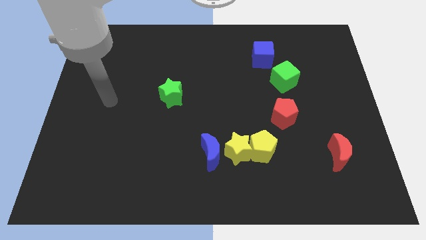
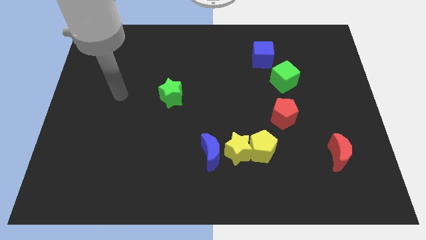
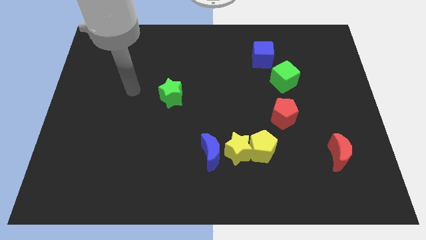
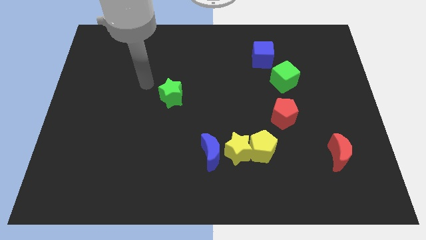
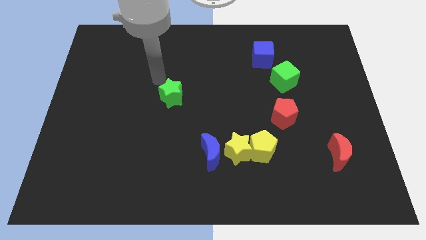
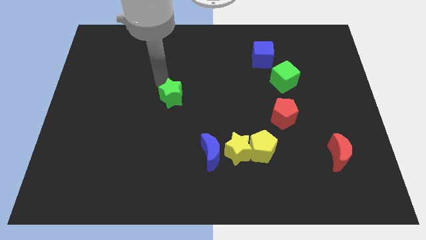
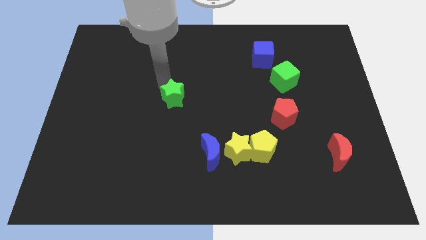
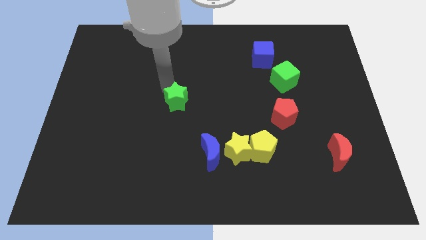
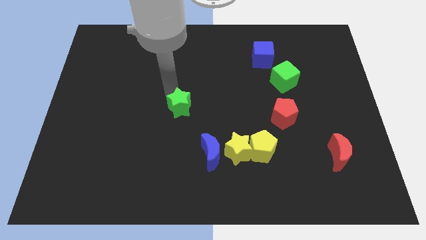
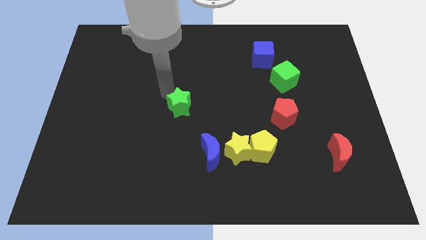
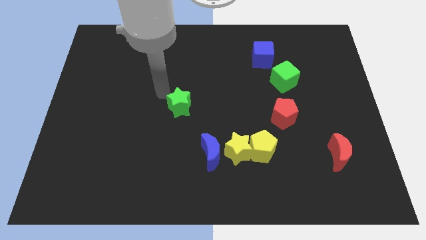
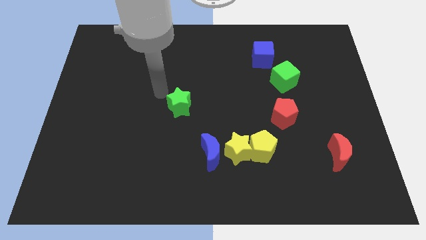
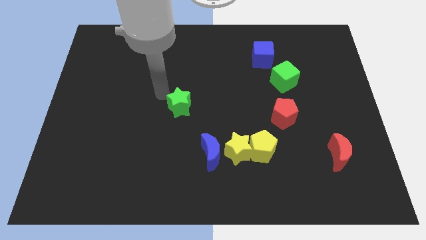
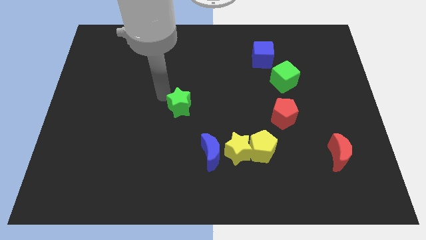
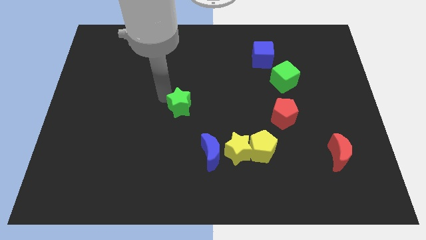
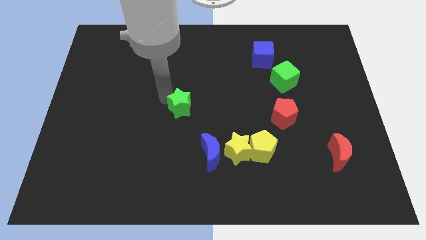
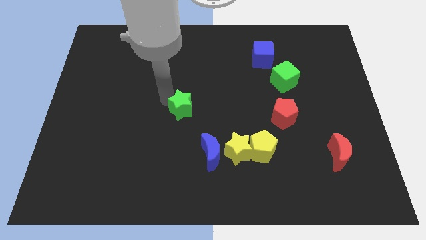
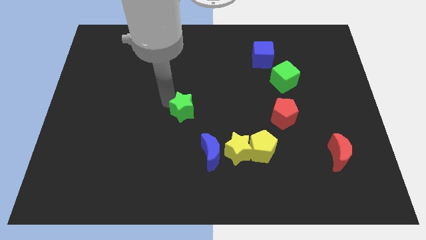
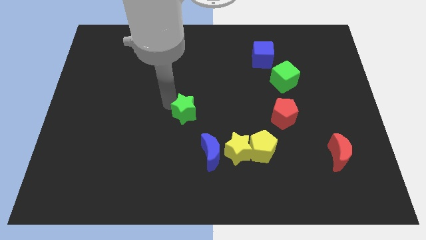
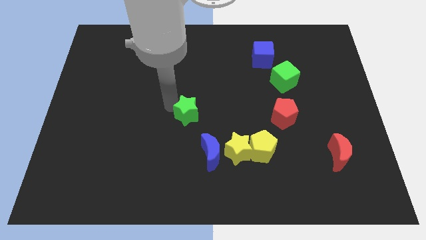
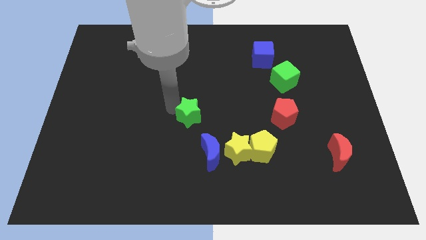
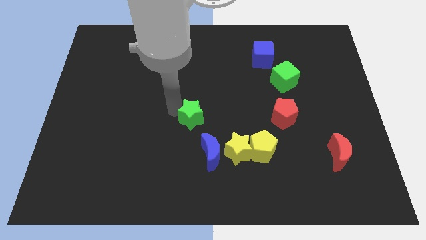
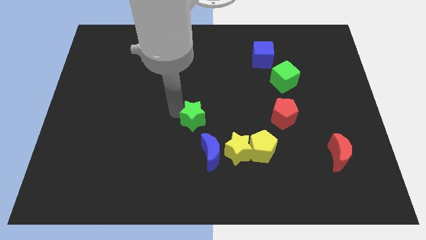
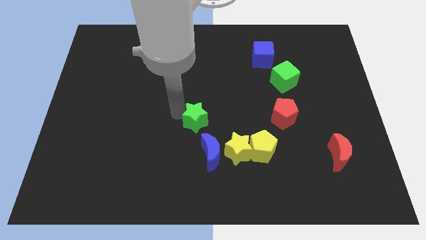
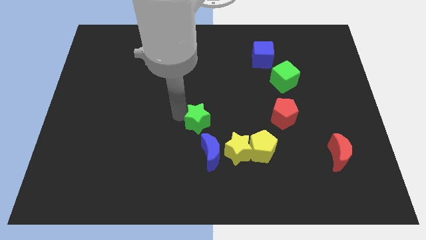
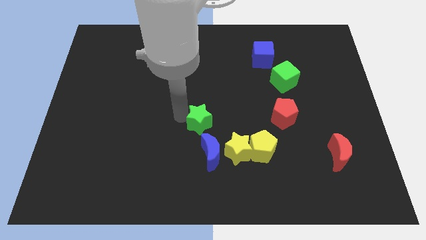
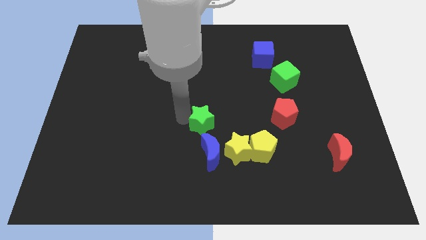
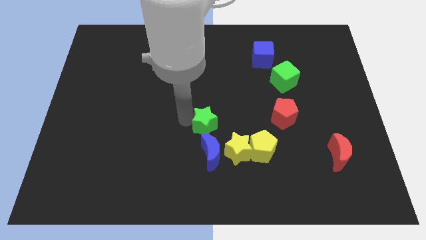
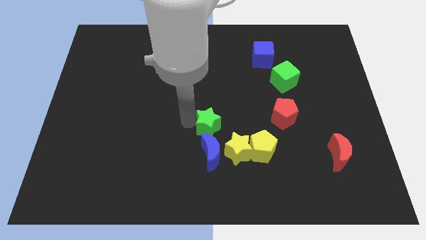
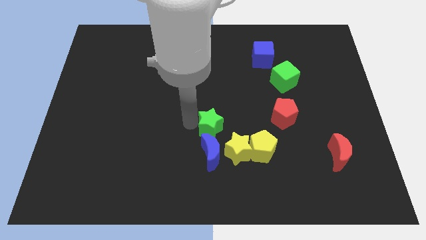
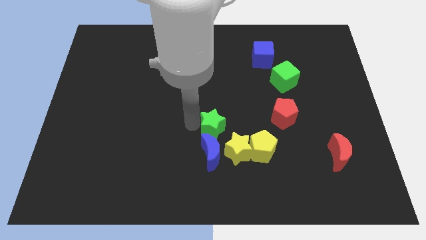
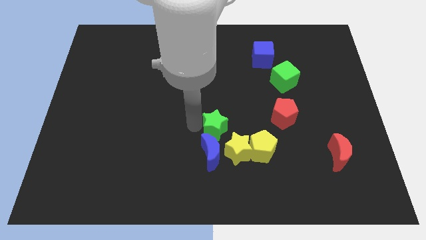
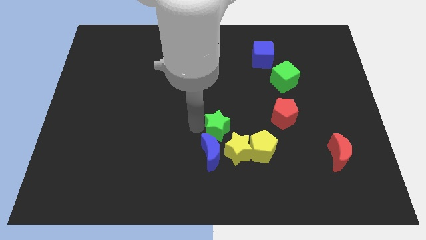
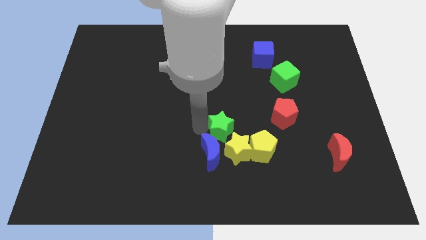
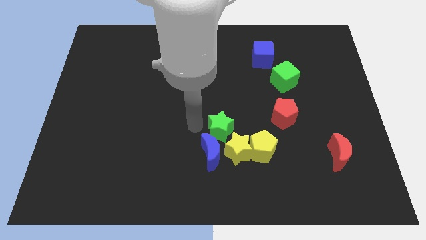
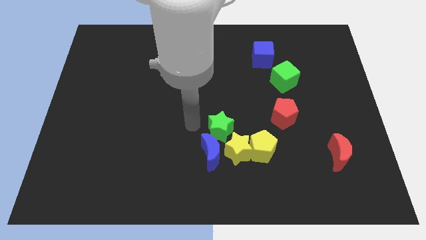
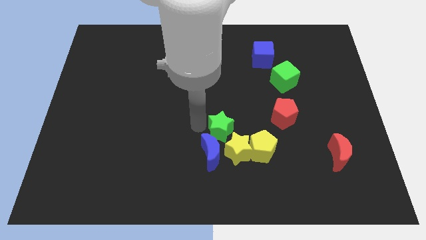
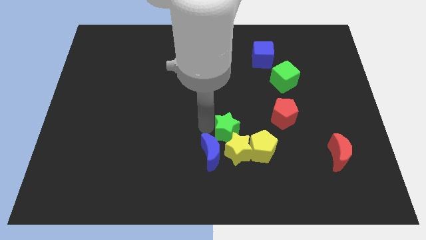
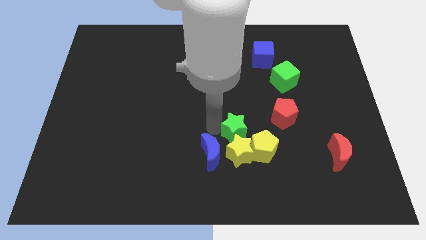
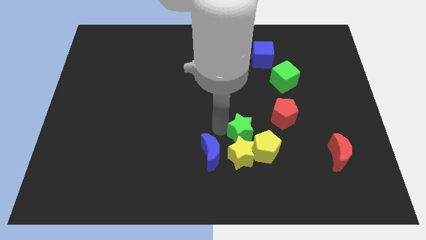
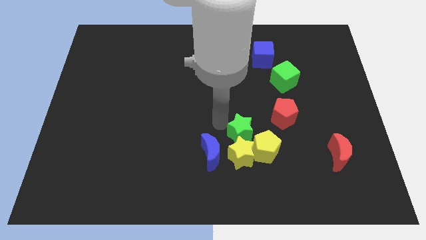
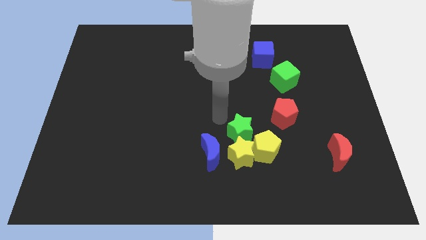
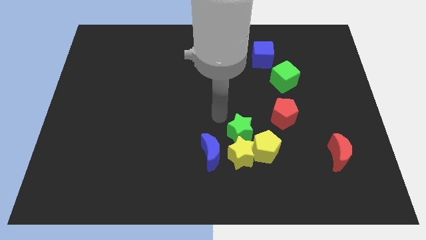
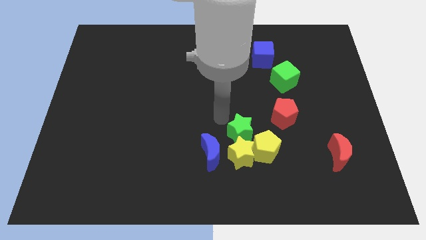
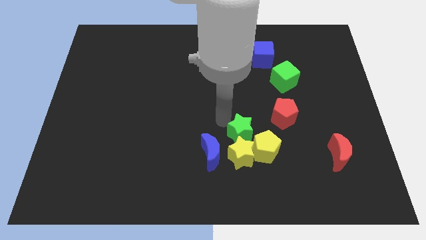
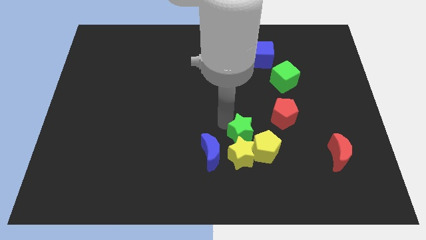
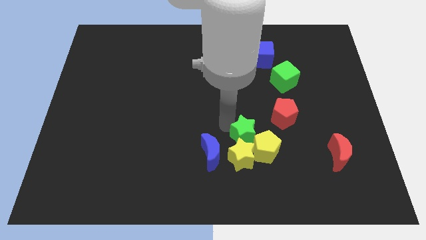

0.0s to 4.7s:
push the green star towards the yellow pentagon

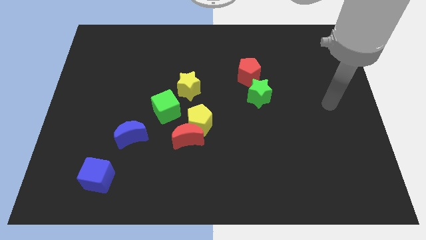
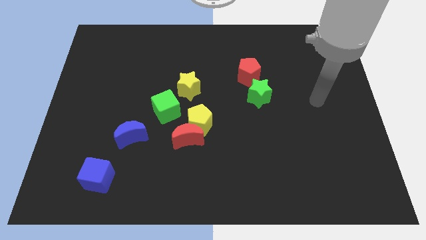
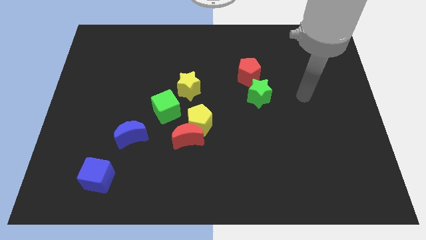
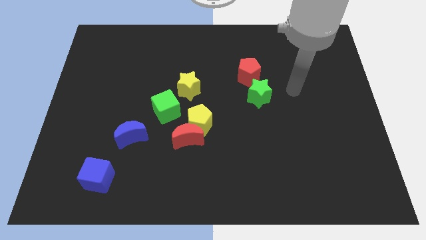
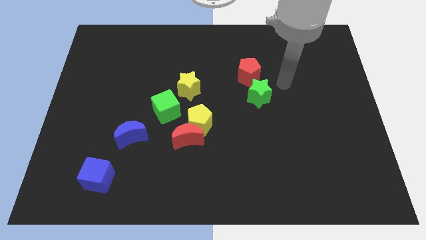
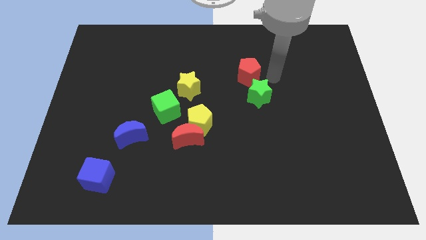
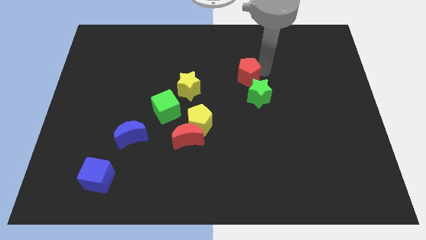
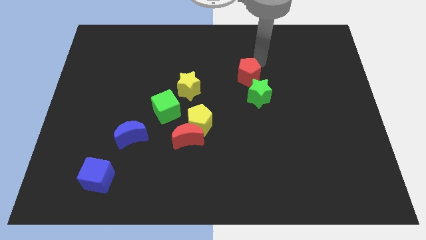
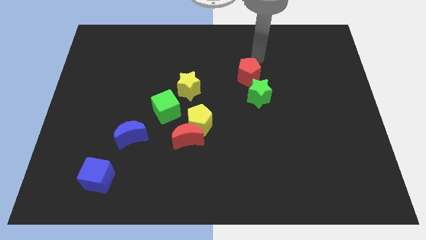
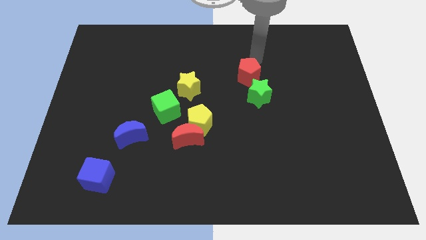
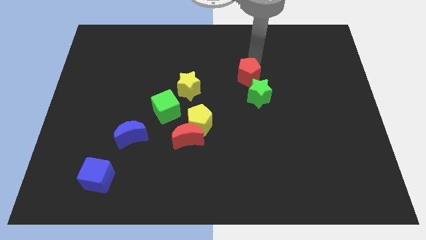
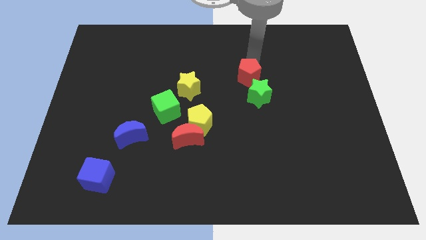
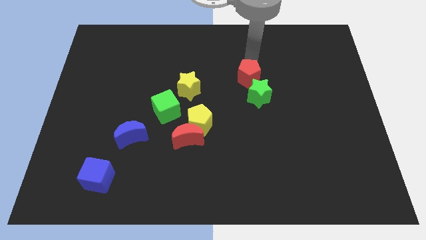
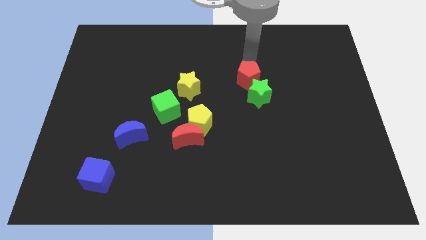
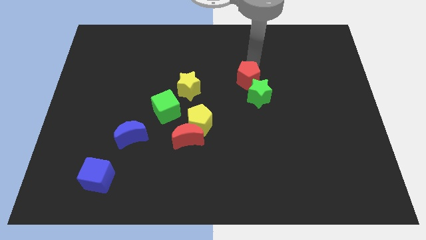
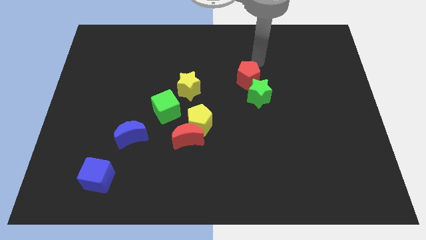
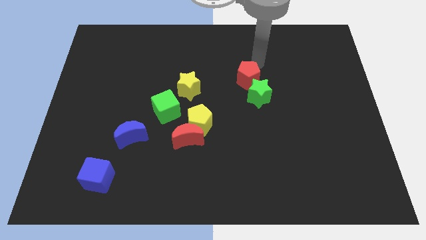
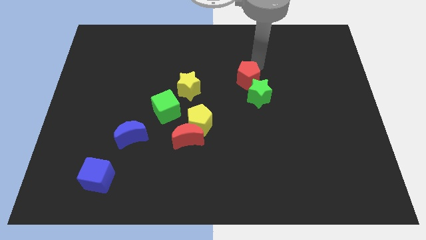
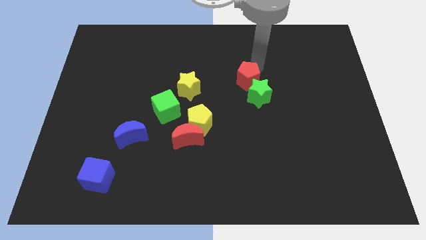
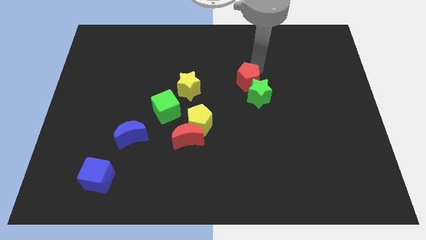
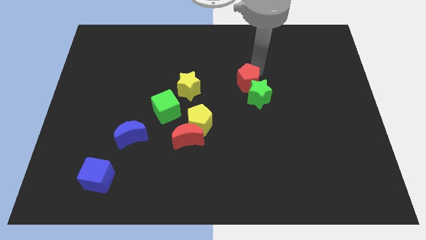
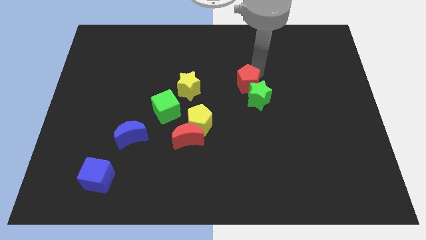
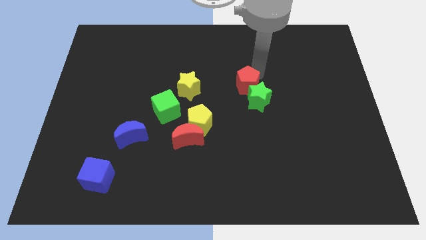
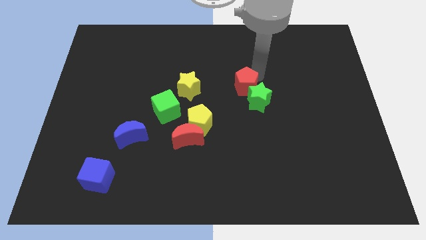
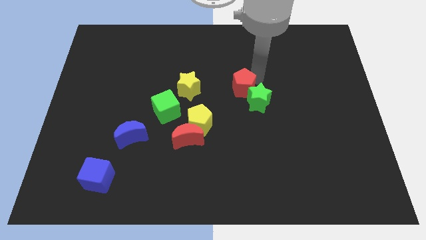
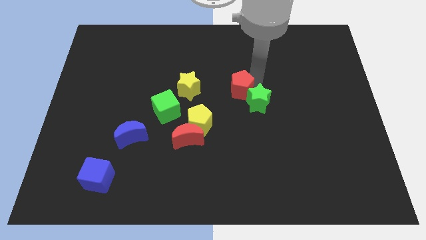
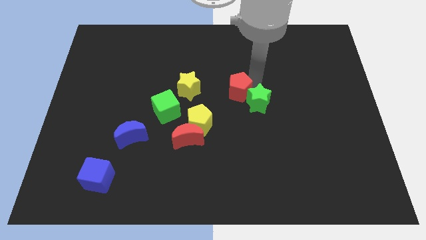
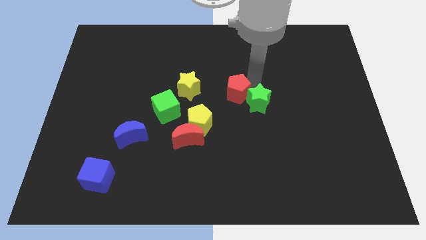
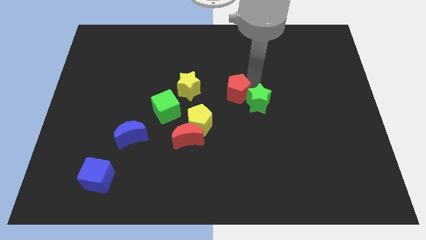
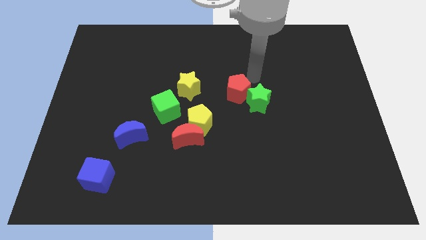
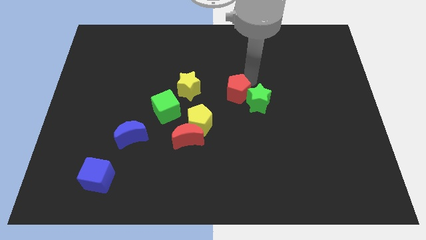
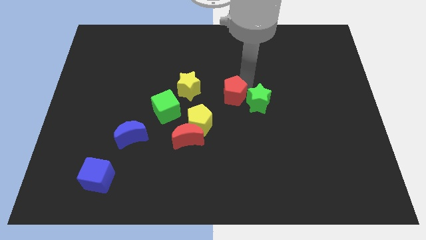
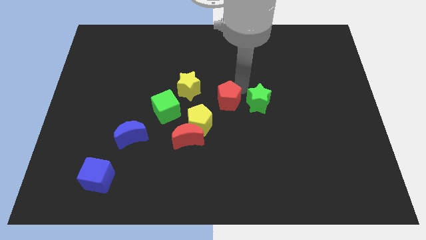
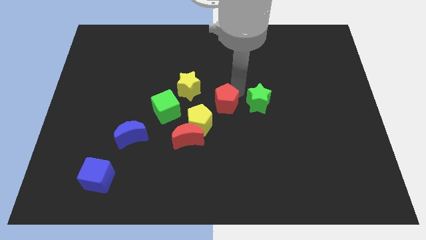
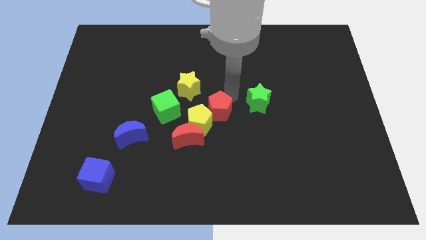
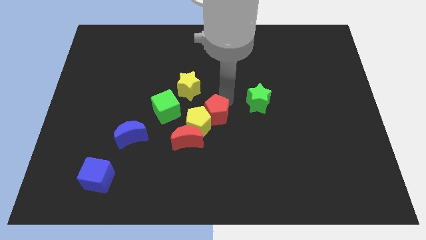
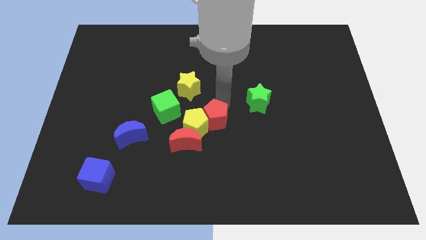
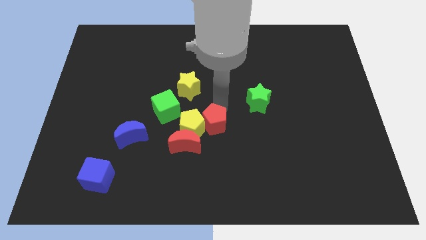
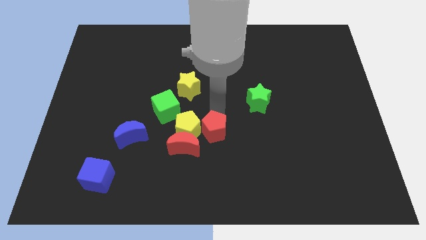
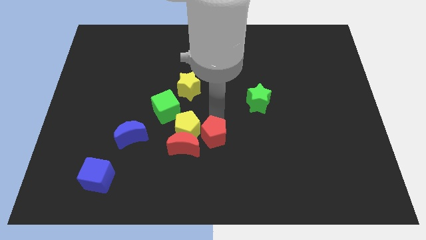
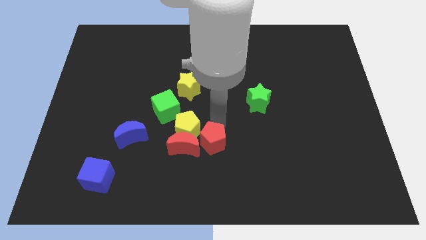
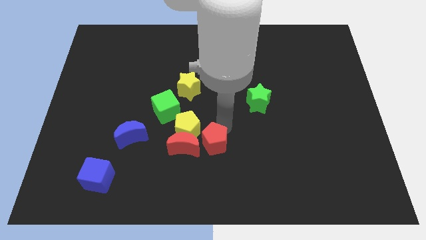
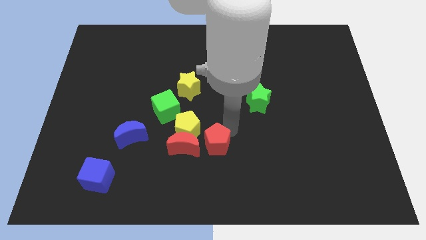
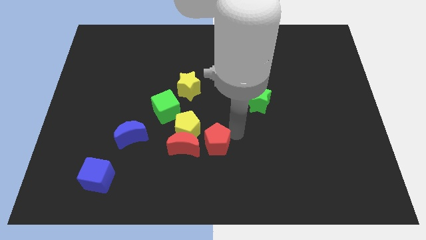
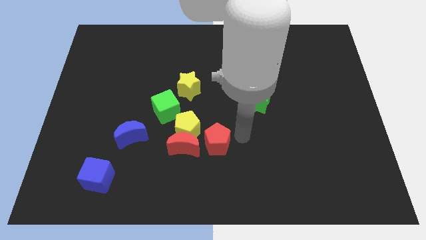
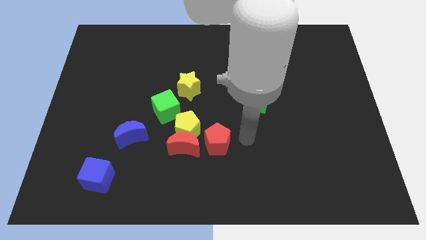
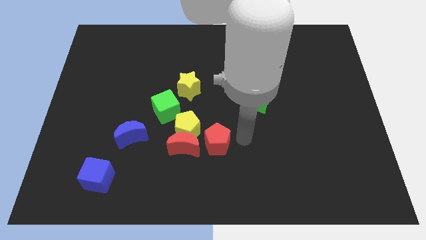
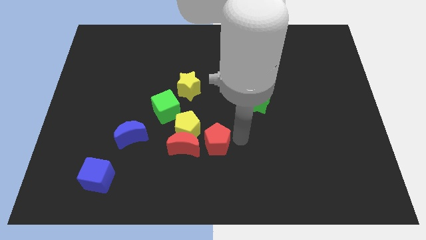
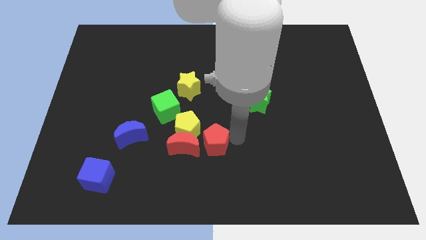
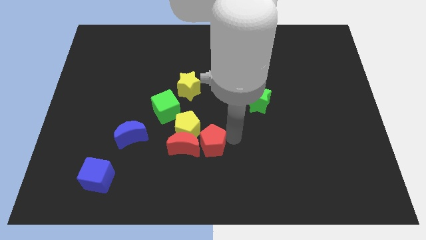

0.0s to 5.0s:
slide the red pentagon to the red moon
